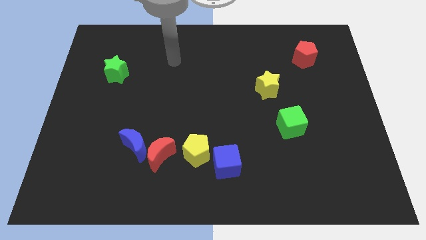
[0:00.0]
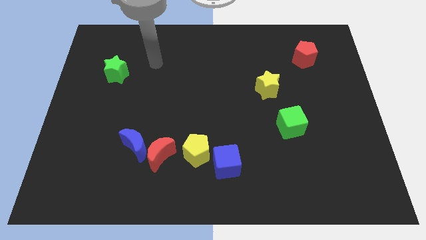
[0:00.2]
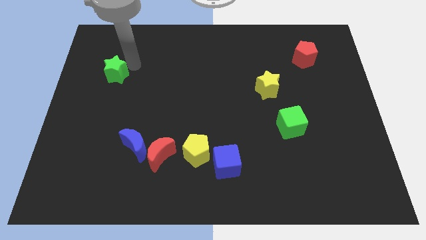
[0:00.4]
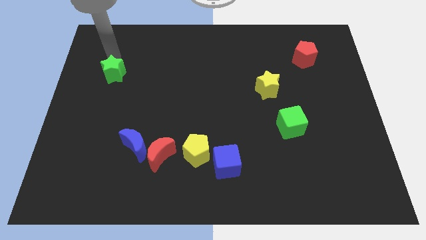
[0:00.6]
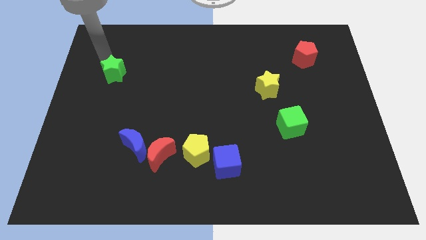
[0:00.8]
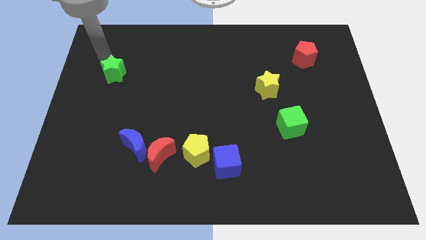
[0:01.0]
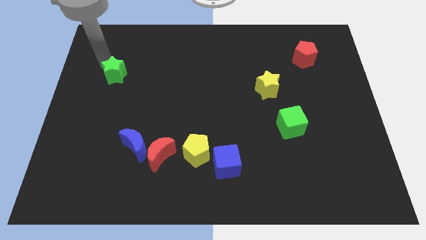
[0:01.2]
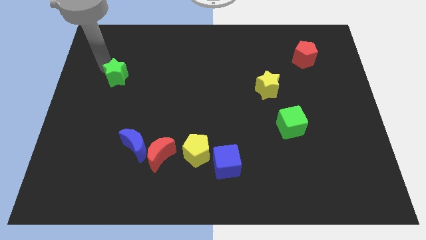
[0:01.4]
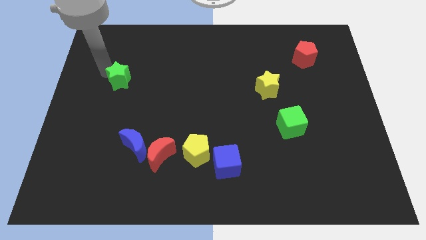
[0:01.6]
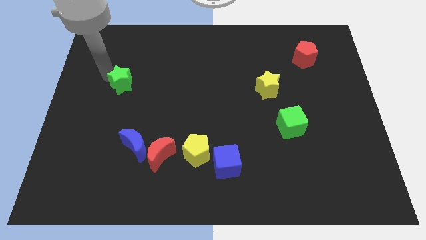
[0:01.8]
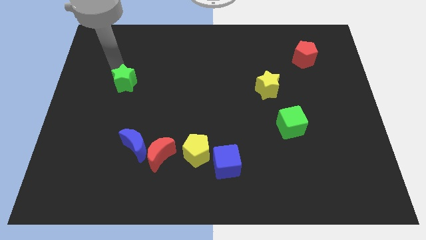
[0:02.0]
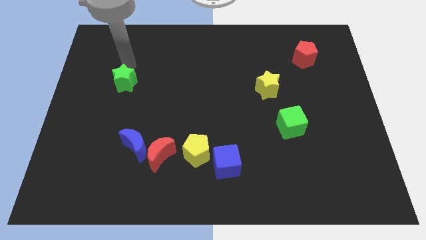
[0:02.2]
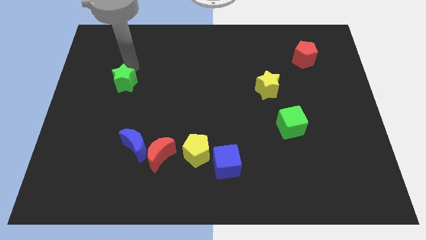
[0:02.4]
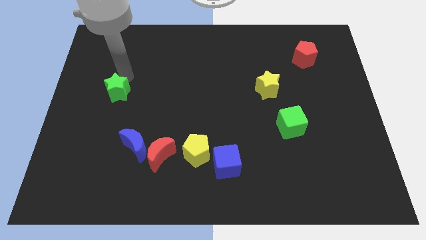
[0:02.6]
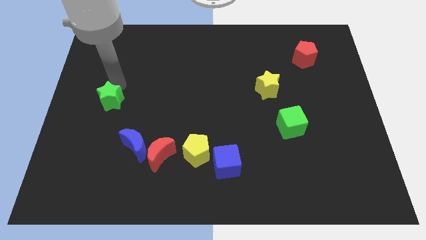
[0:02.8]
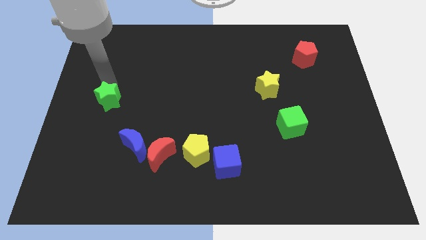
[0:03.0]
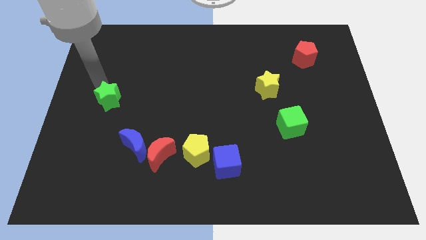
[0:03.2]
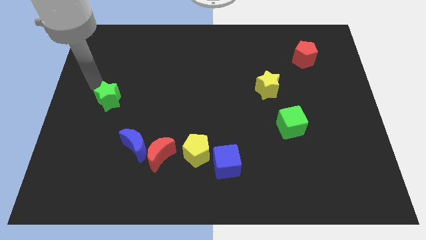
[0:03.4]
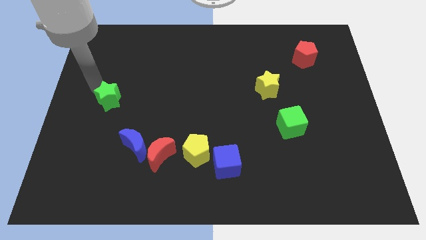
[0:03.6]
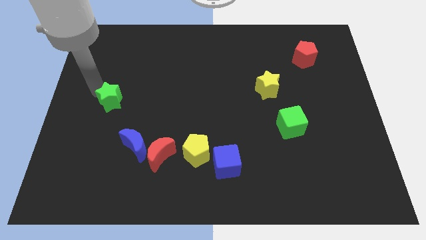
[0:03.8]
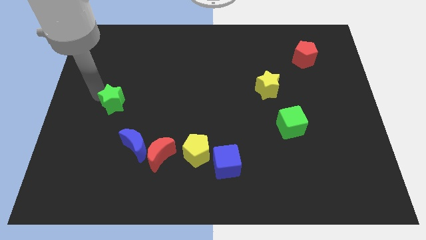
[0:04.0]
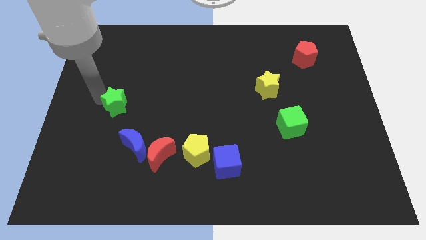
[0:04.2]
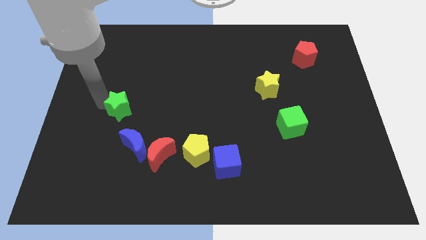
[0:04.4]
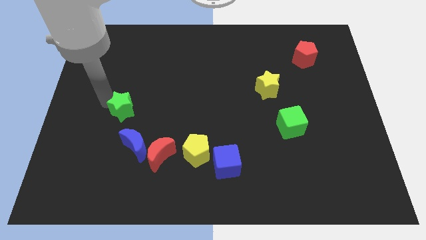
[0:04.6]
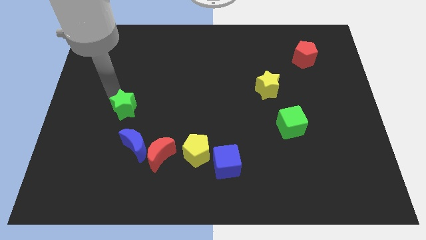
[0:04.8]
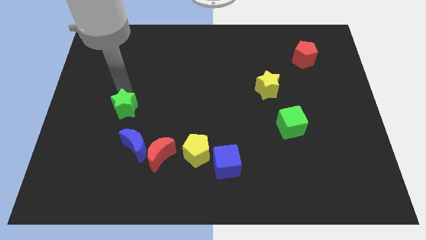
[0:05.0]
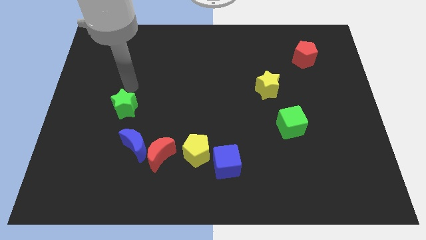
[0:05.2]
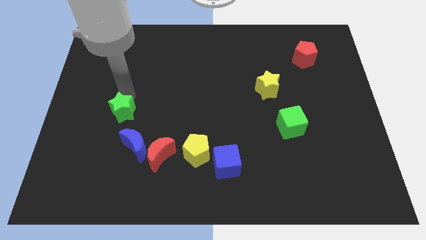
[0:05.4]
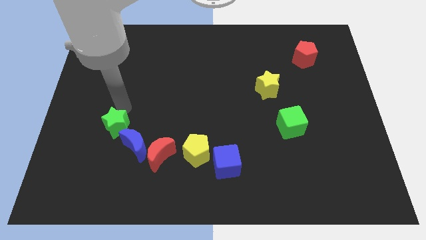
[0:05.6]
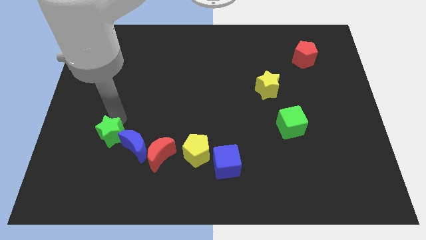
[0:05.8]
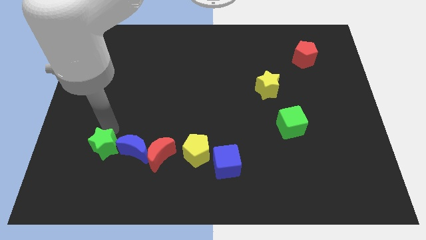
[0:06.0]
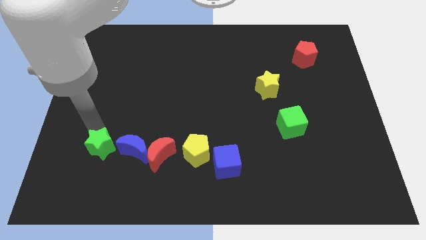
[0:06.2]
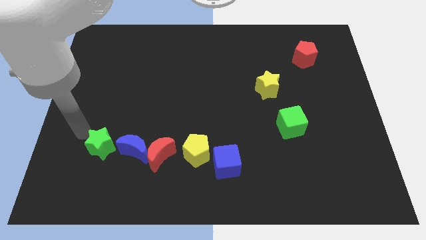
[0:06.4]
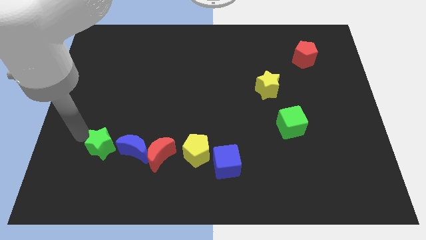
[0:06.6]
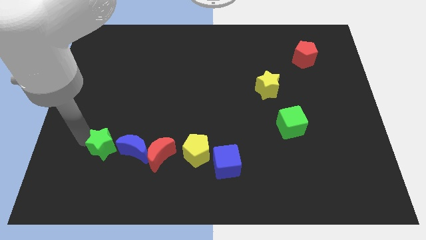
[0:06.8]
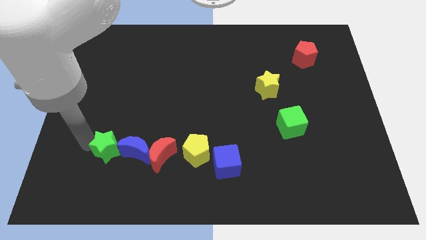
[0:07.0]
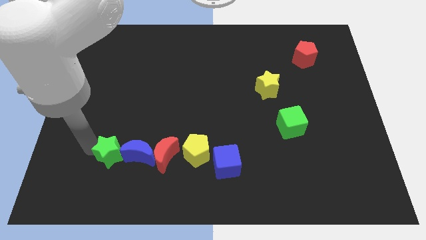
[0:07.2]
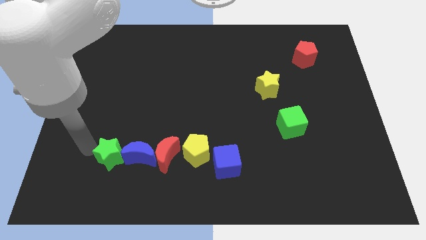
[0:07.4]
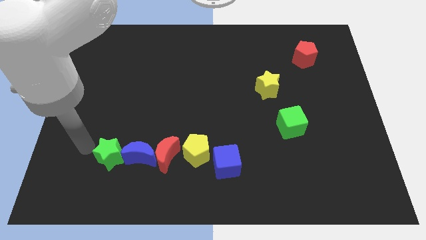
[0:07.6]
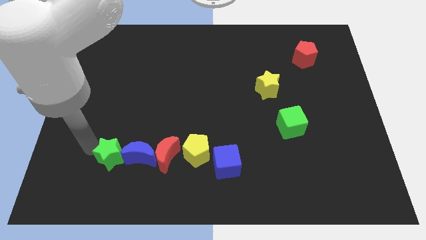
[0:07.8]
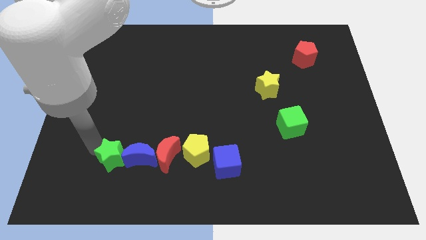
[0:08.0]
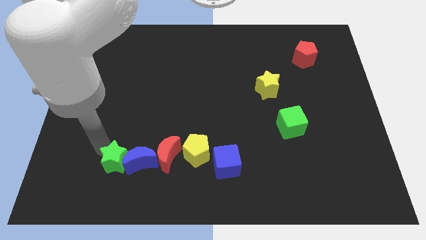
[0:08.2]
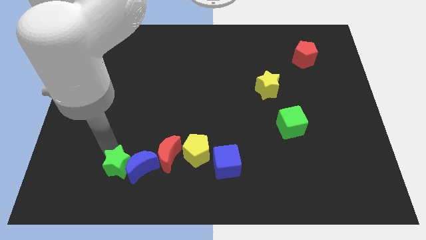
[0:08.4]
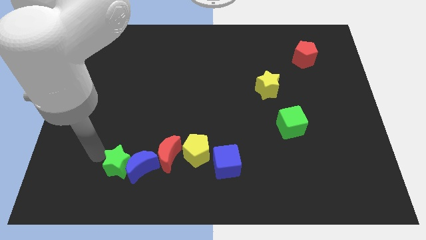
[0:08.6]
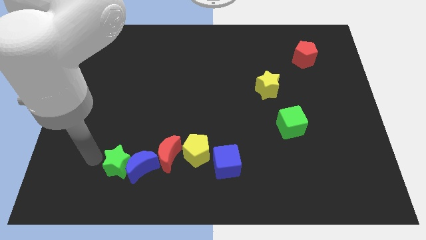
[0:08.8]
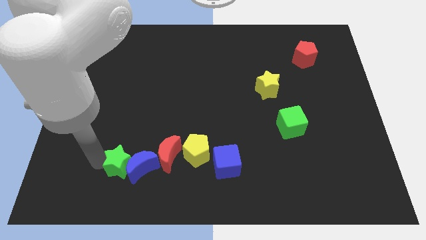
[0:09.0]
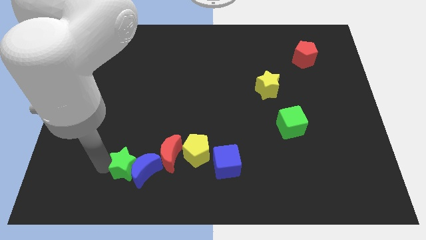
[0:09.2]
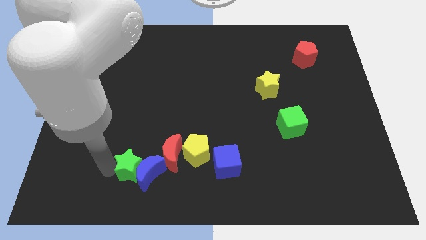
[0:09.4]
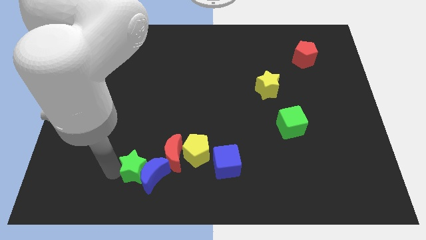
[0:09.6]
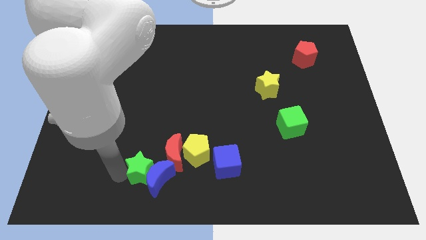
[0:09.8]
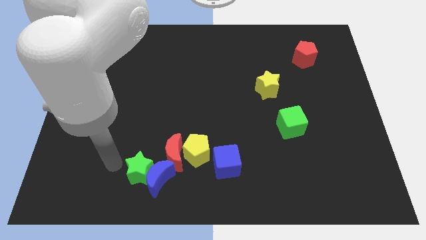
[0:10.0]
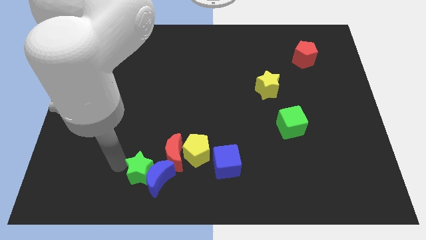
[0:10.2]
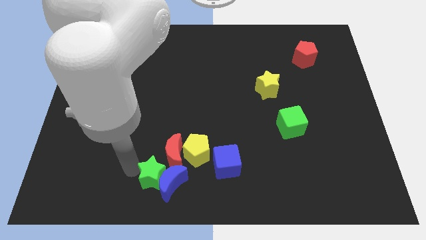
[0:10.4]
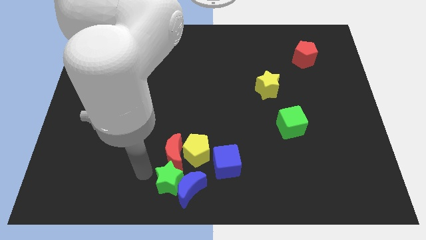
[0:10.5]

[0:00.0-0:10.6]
put the green star to the bottom
